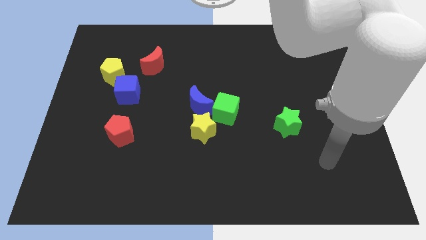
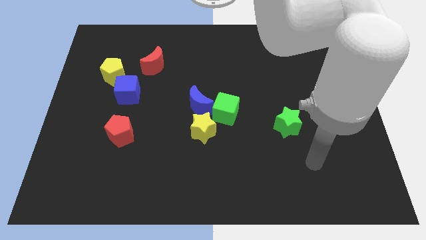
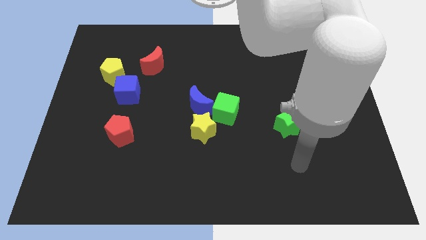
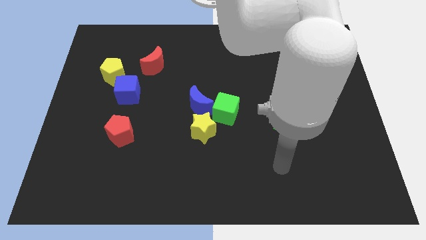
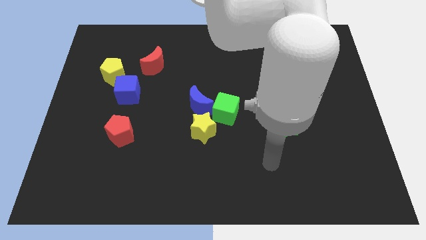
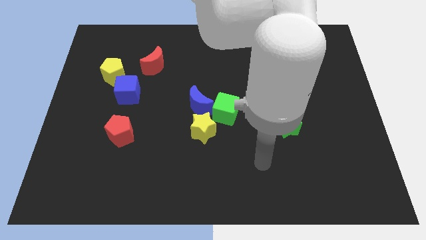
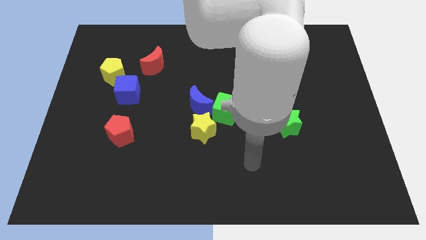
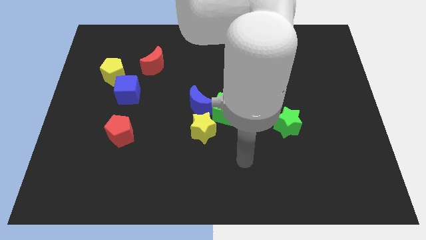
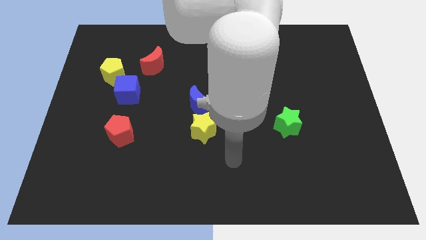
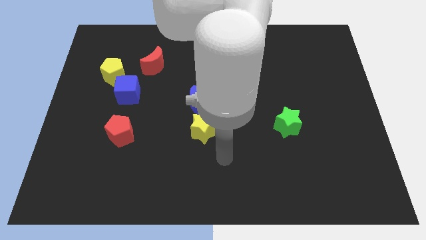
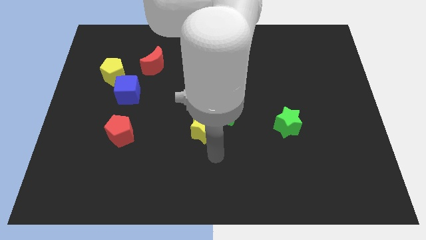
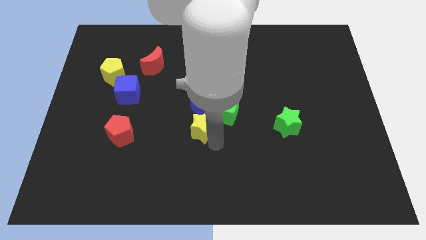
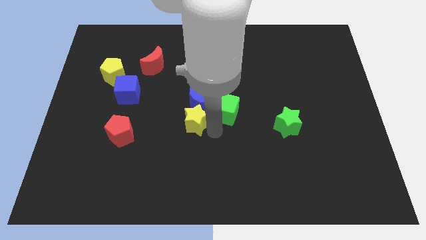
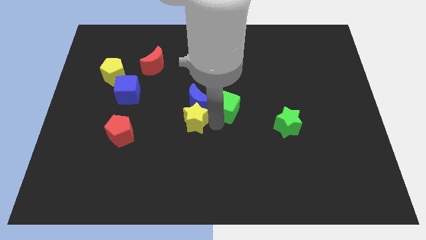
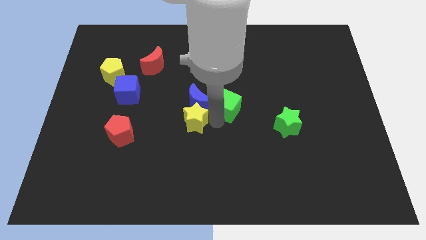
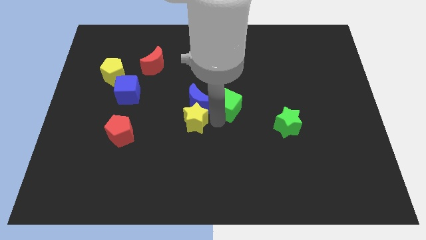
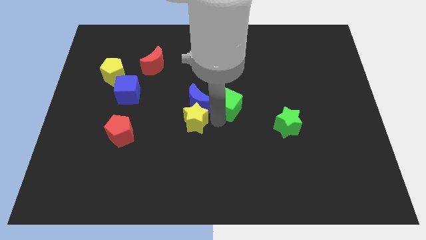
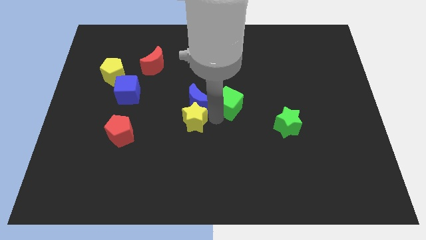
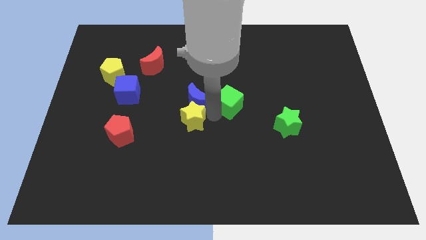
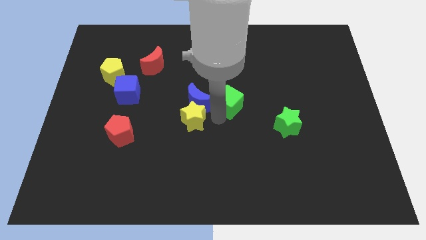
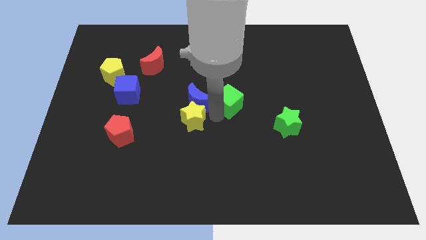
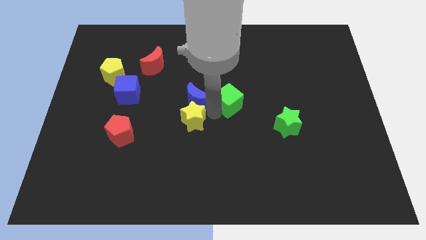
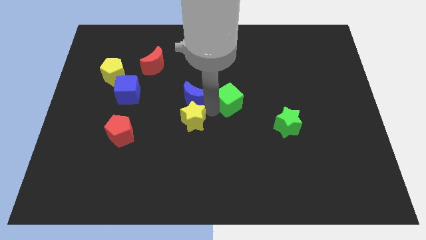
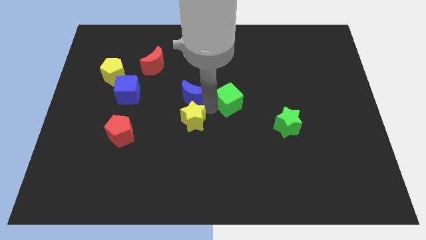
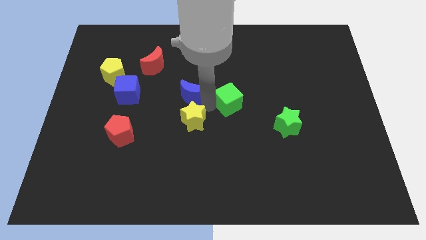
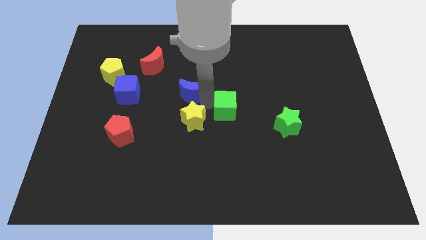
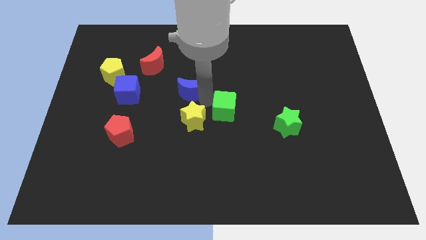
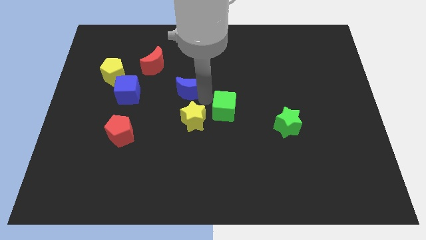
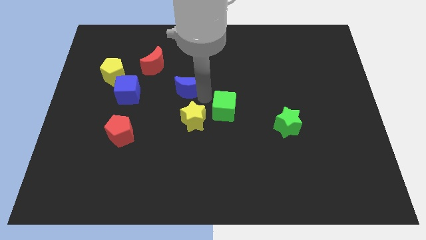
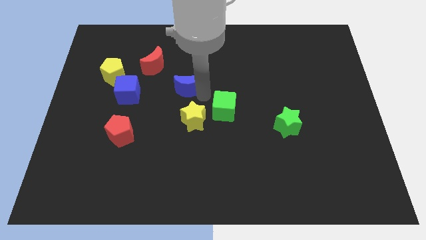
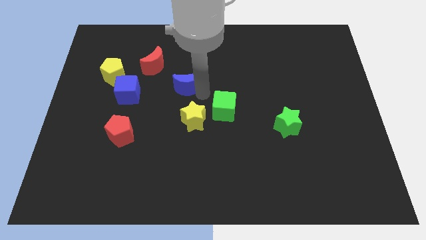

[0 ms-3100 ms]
pull the blue moon apart from the green cube and yellow star

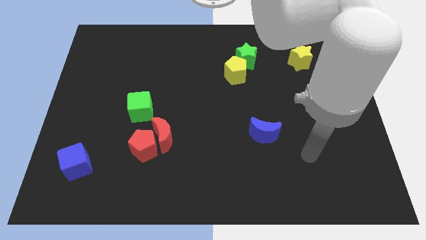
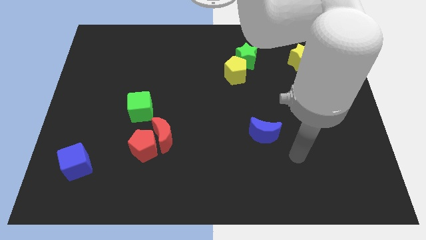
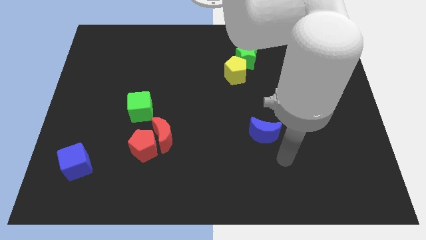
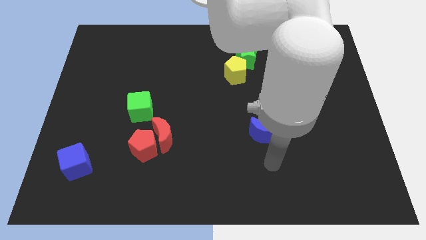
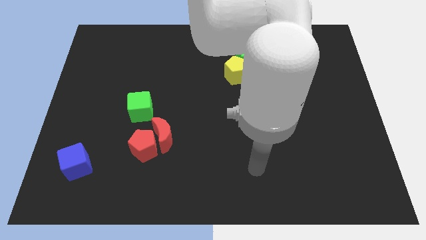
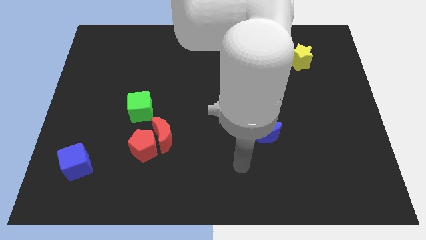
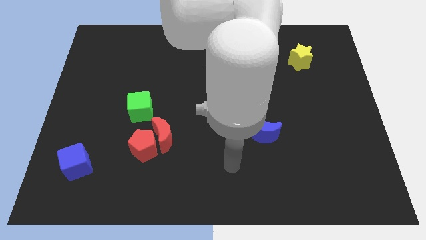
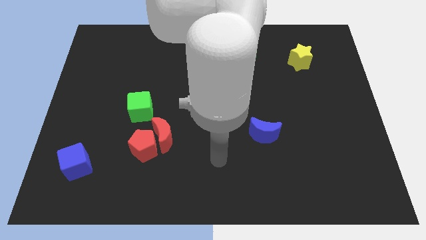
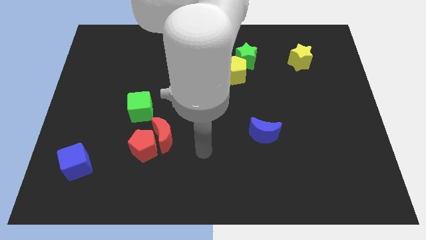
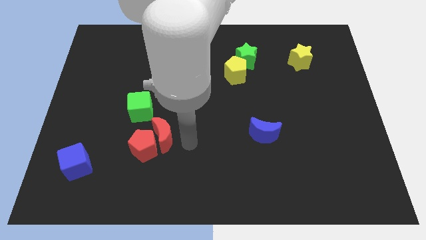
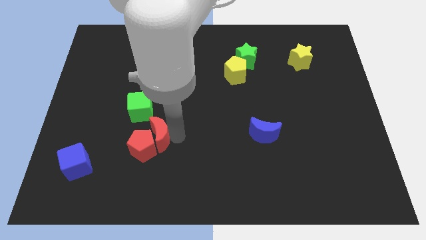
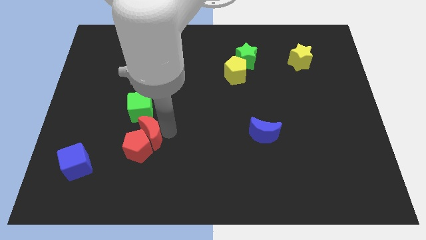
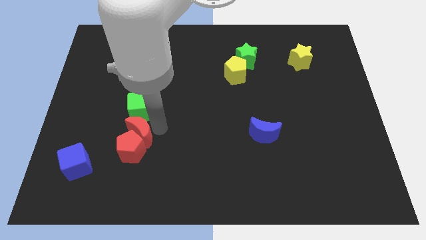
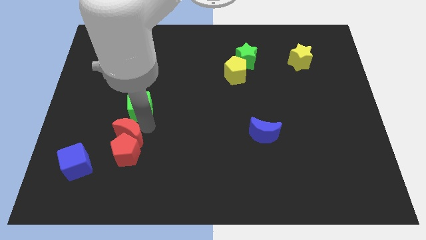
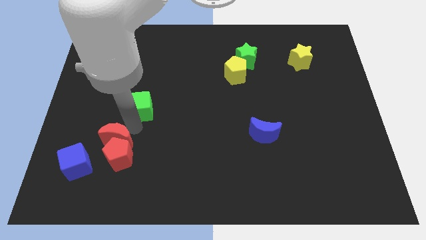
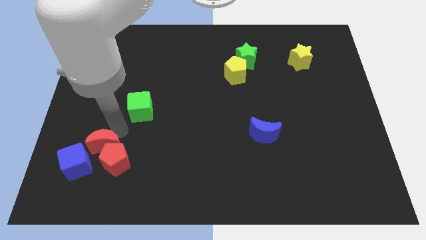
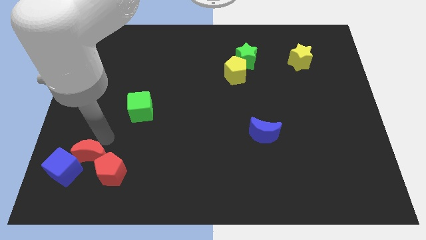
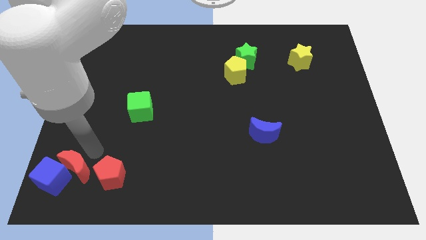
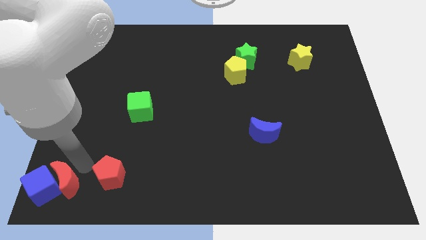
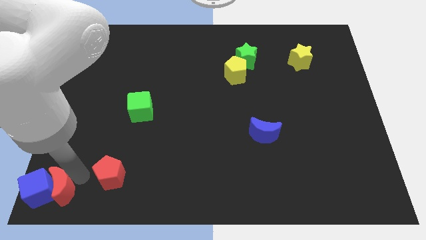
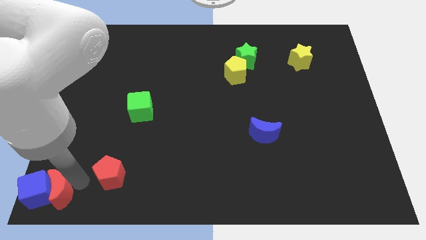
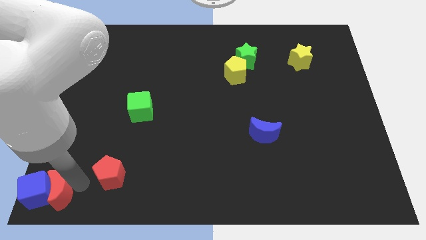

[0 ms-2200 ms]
pull the red pentagon apart from the red moon

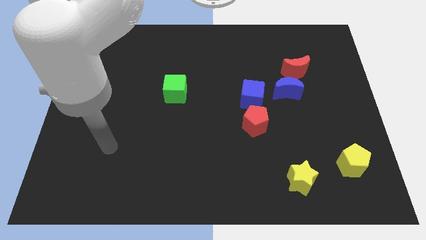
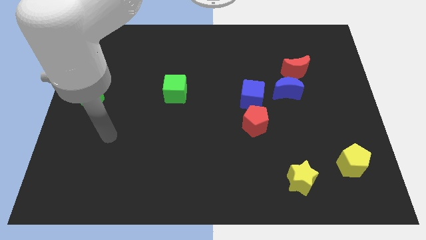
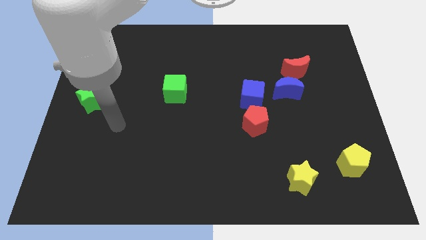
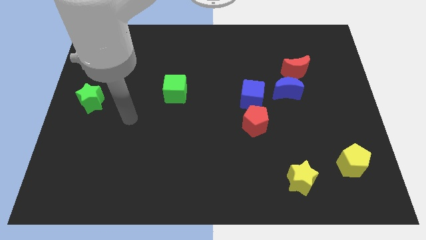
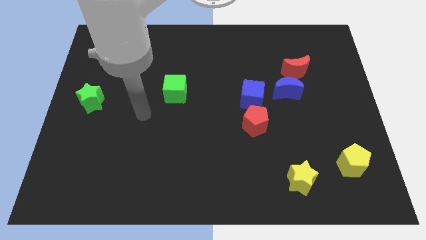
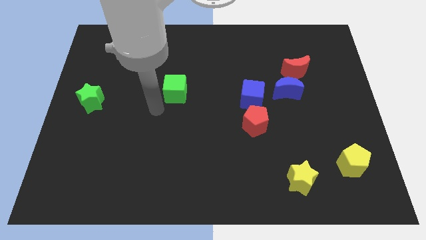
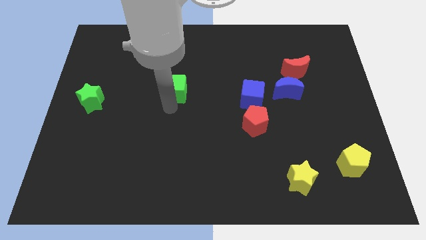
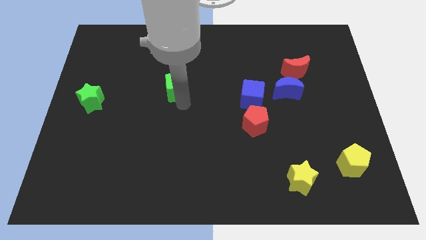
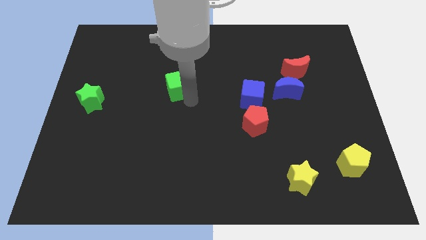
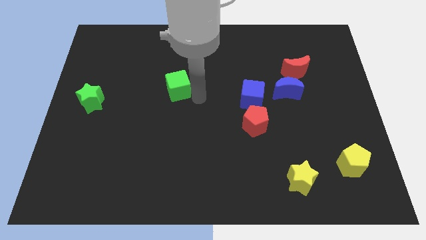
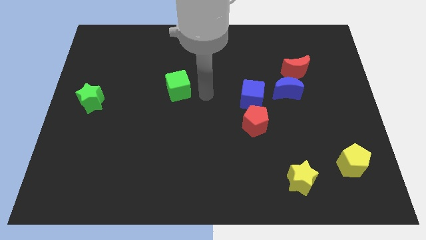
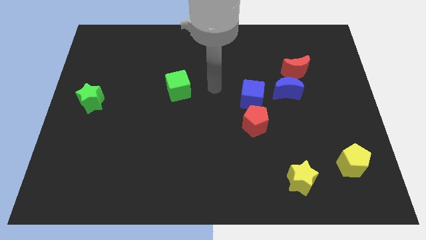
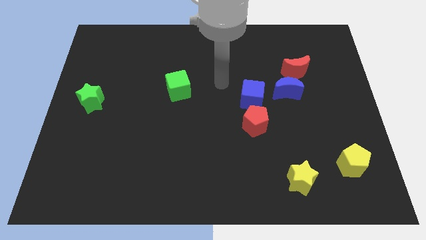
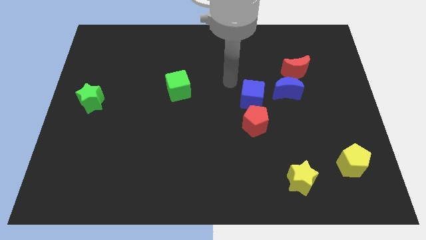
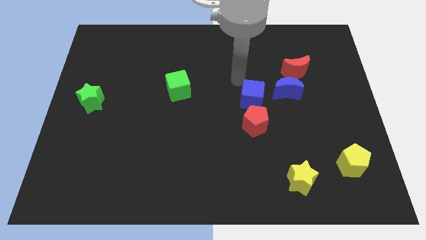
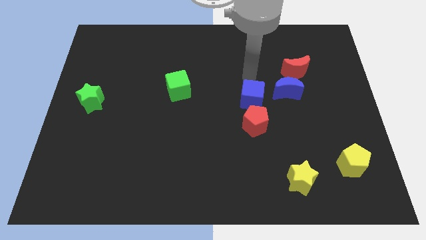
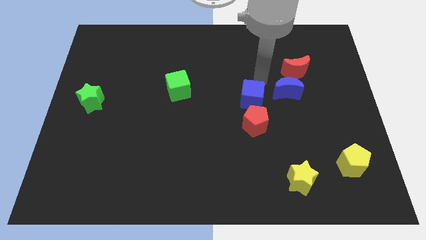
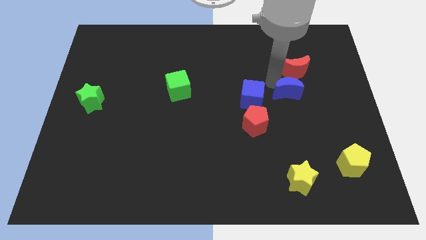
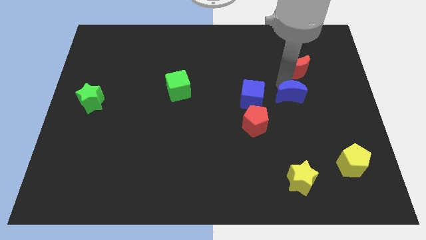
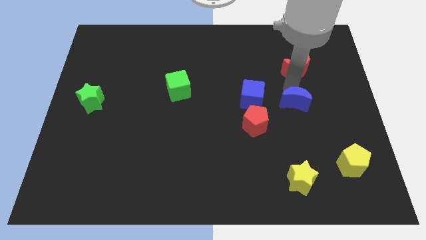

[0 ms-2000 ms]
pull the red moon apart from the blue moon

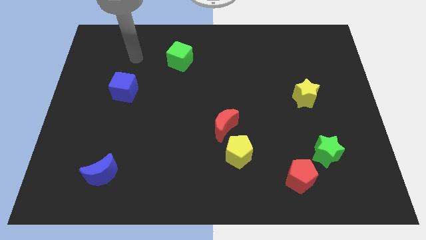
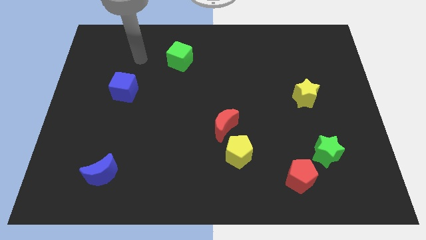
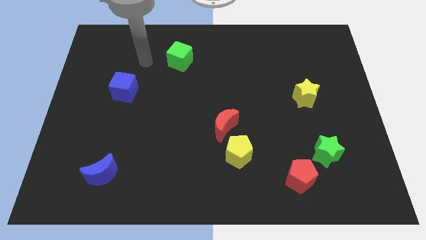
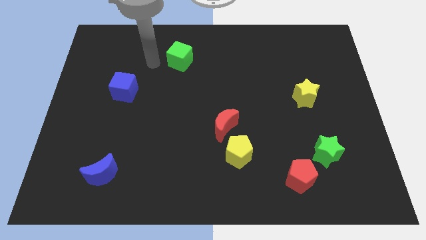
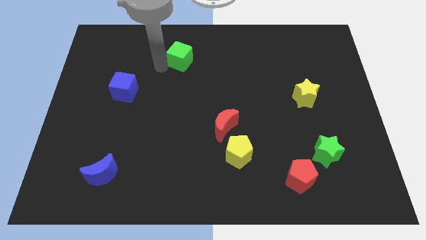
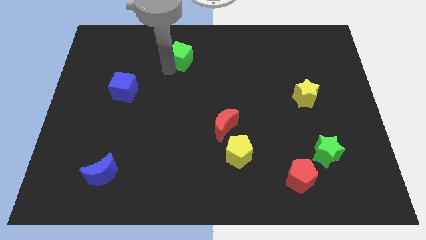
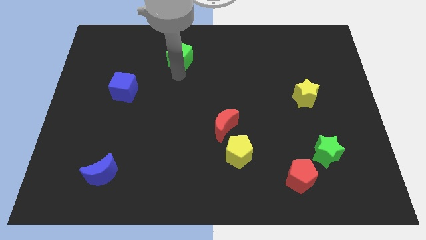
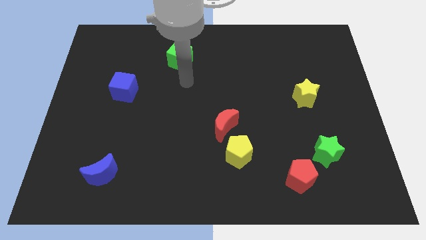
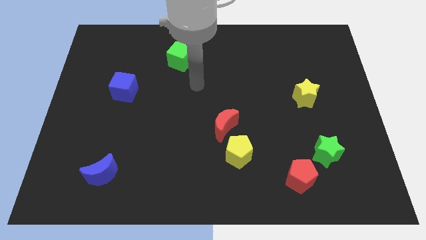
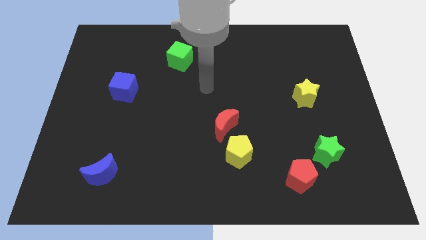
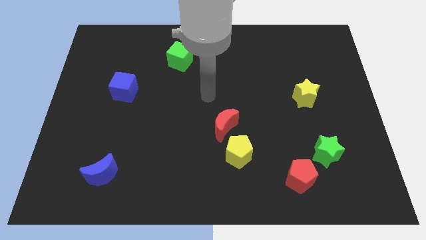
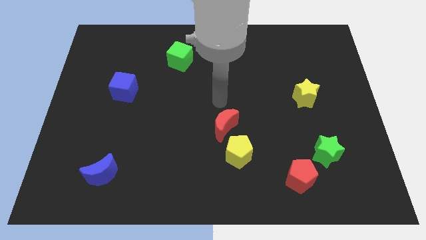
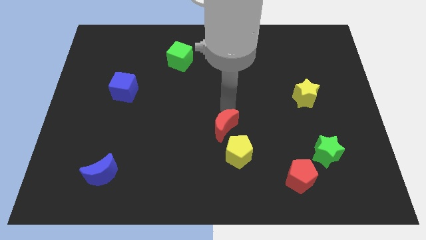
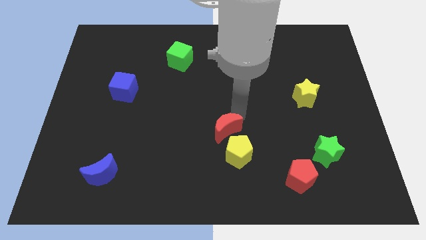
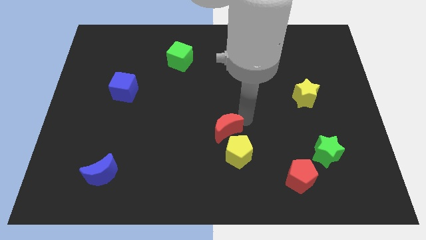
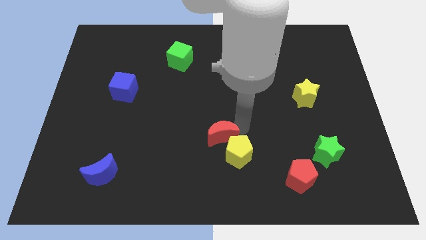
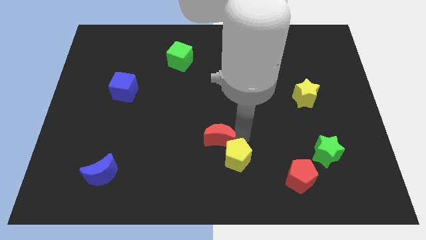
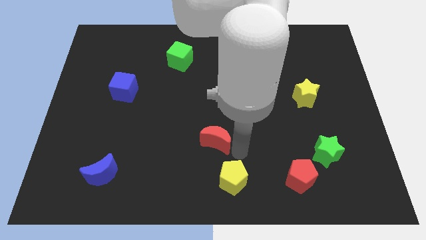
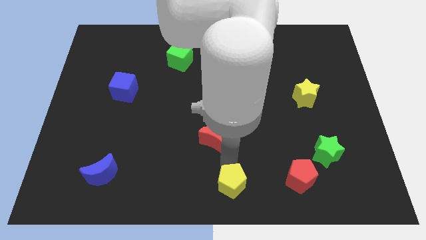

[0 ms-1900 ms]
pull the red moon apart from the yellow pentagon

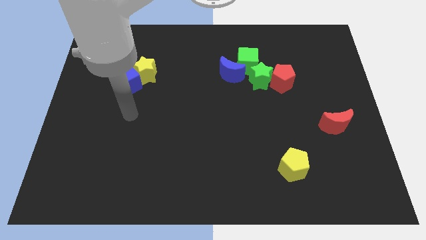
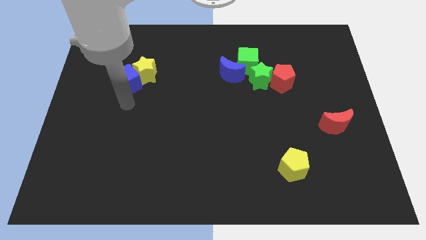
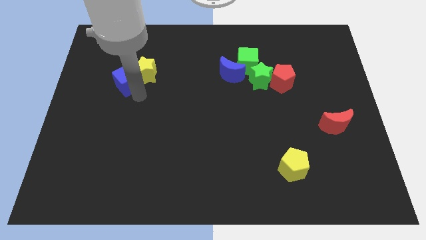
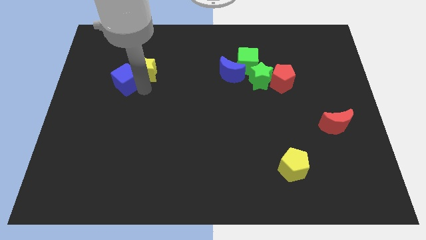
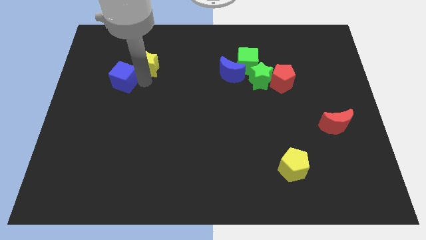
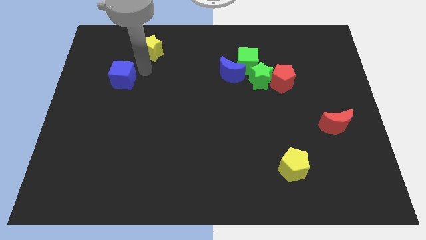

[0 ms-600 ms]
pull the blue cube apart from the yellow star
